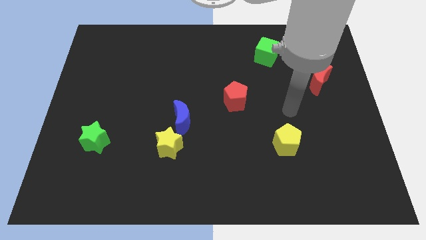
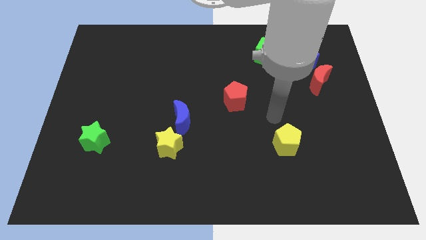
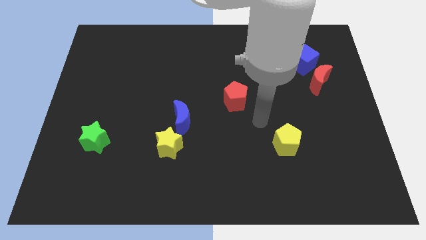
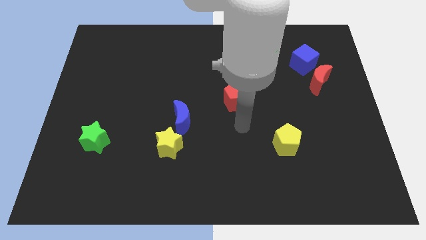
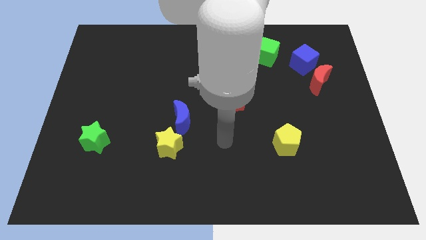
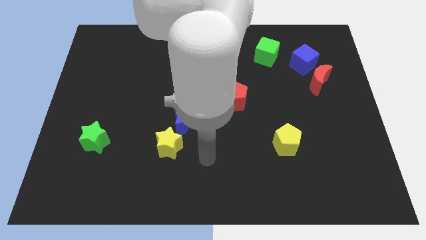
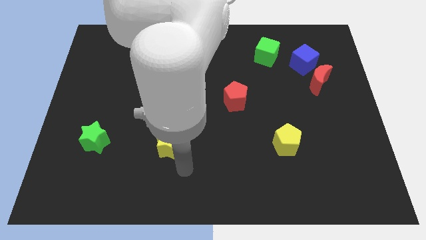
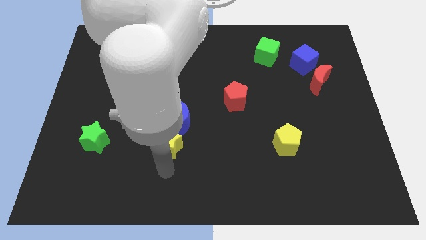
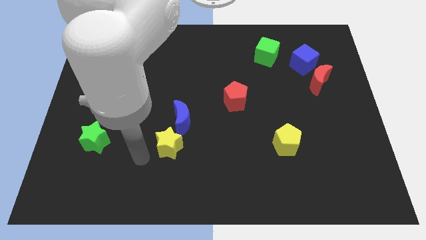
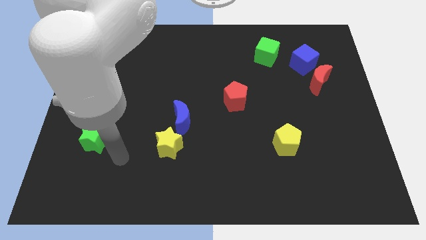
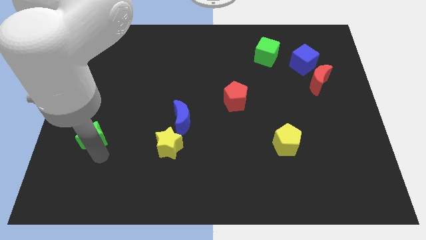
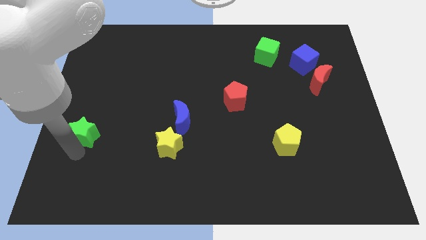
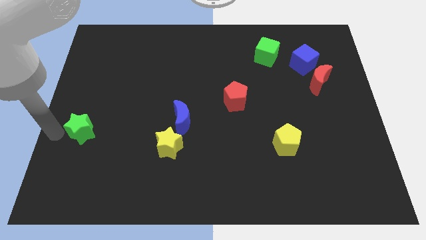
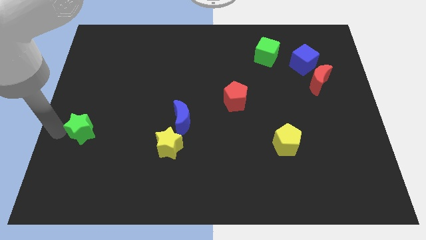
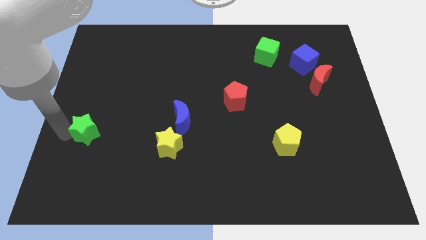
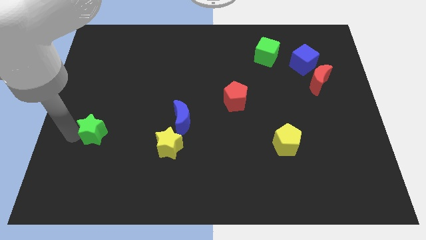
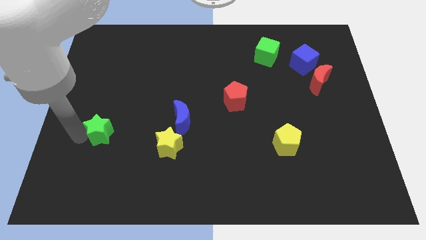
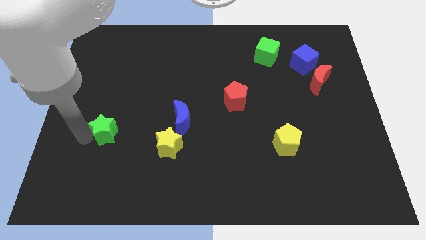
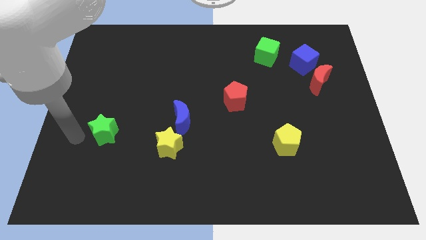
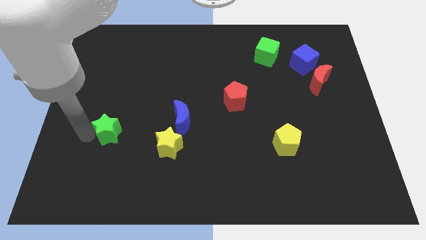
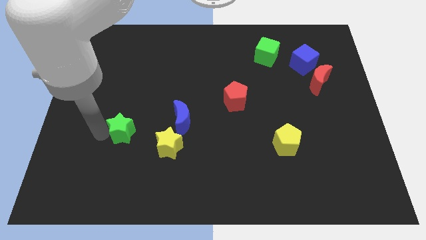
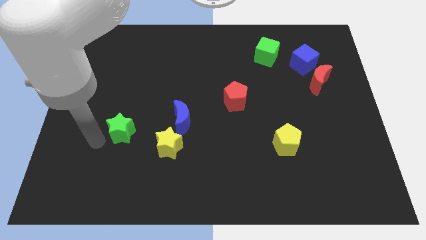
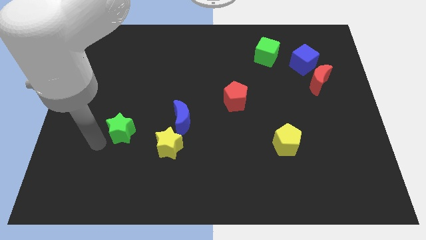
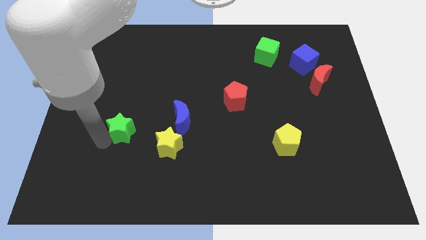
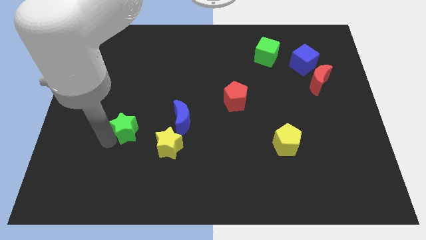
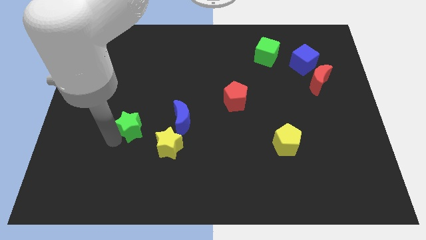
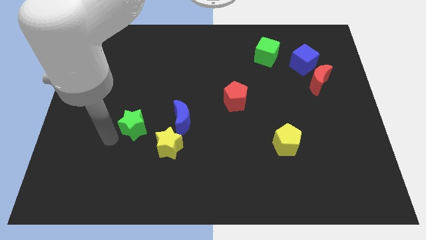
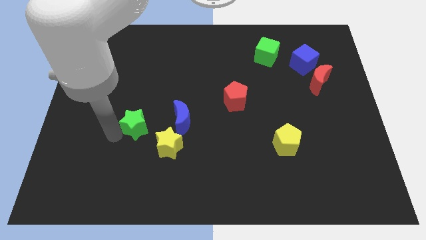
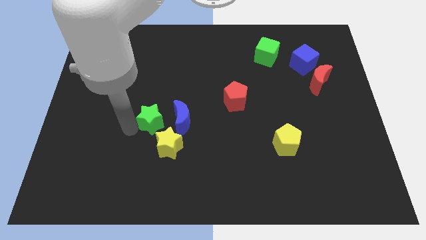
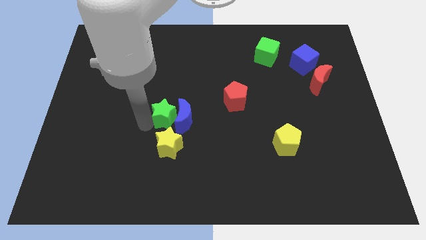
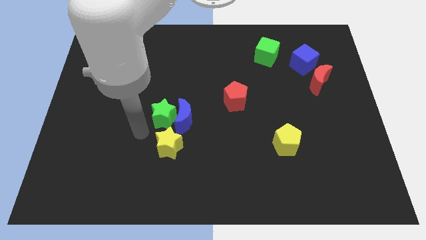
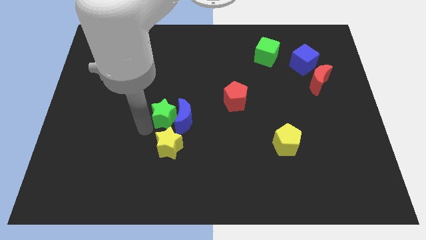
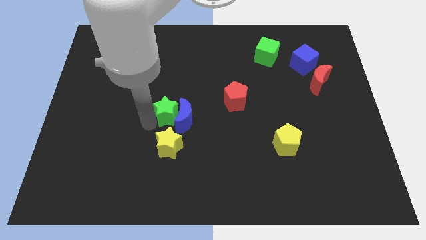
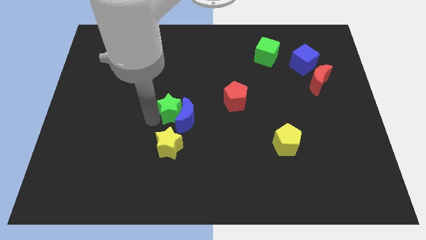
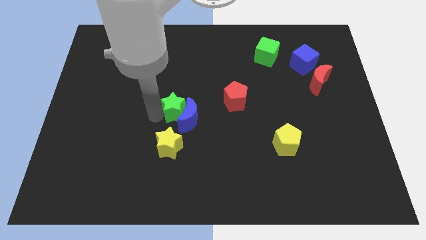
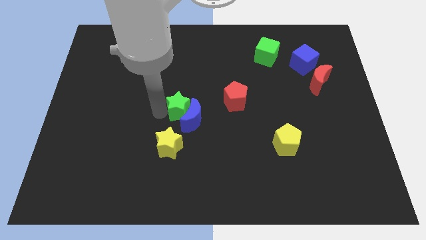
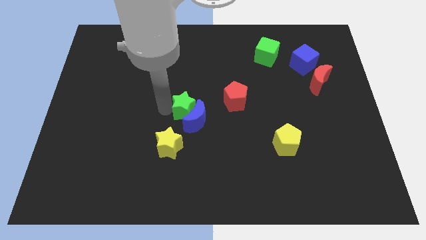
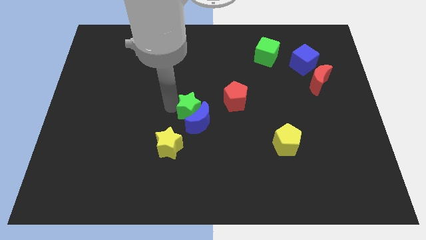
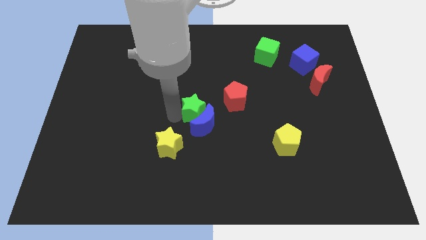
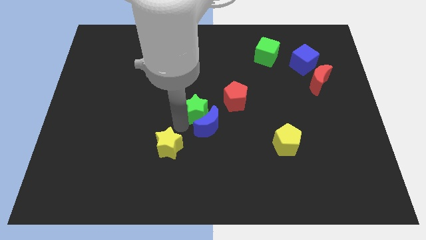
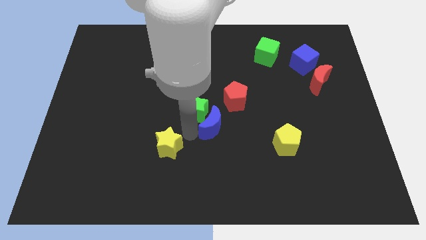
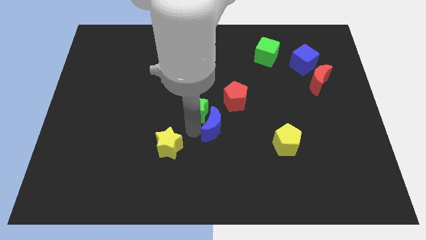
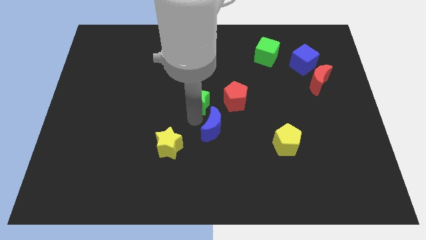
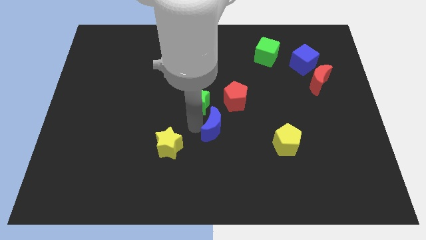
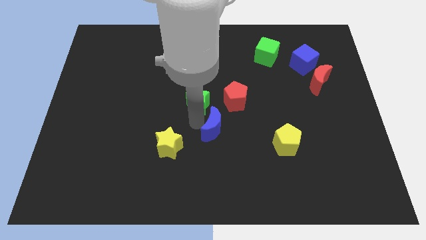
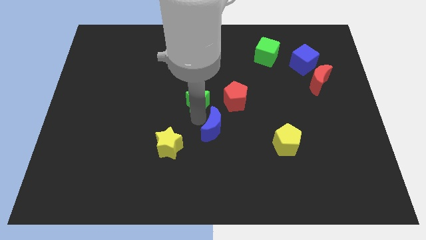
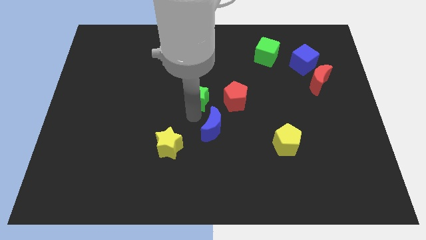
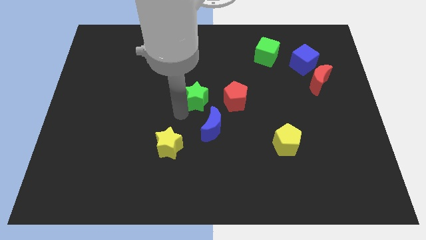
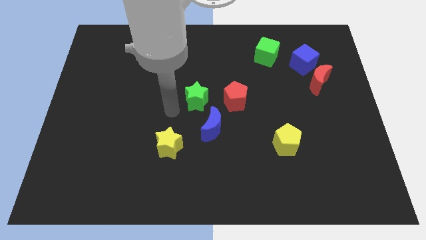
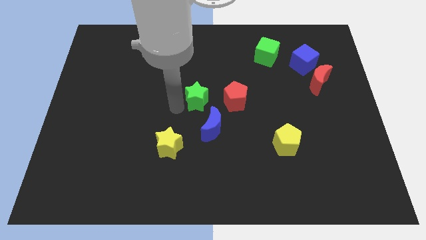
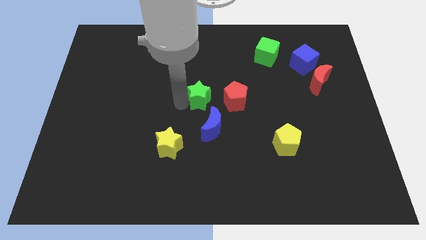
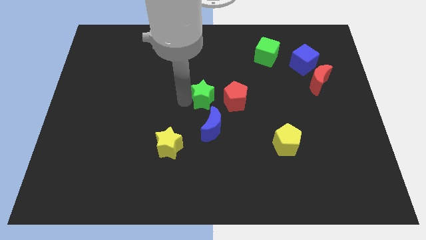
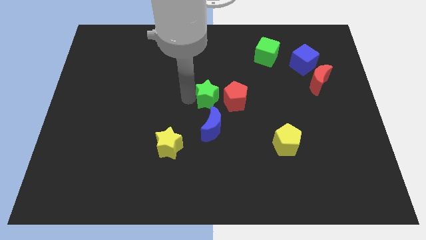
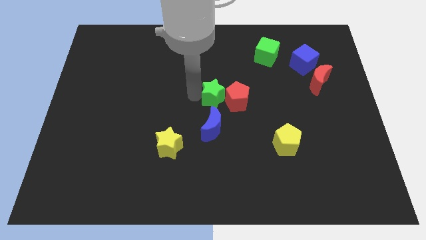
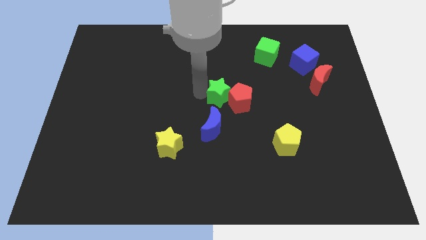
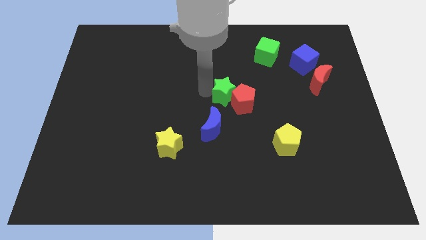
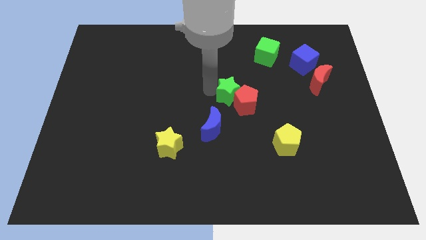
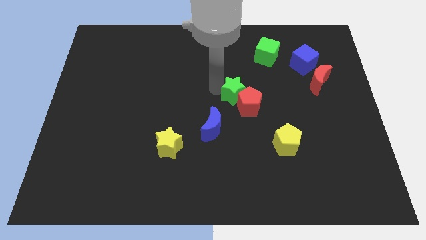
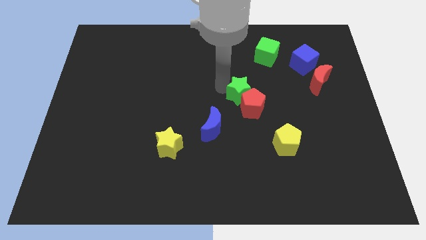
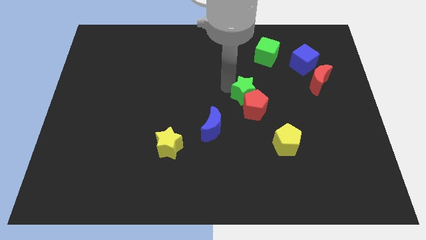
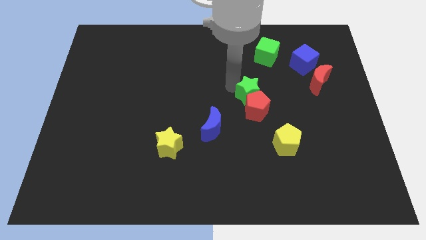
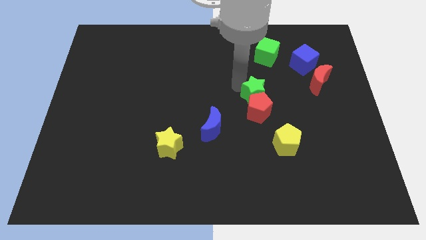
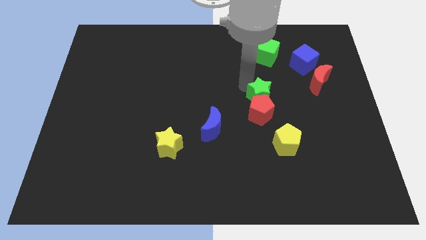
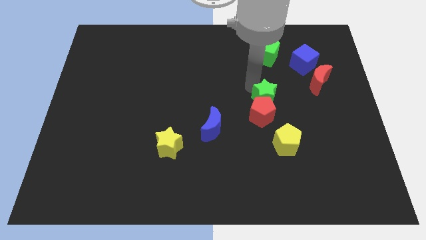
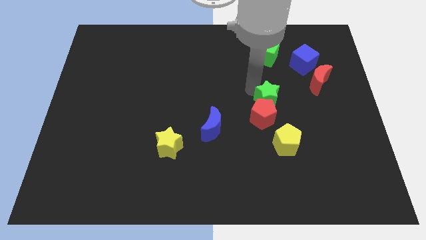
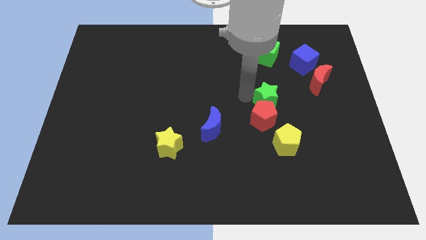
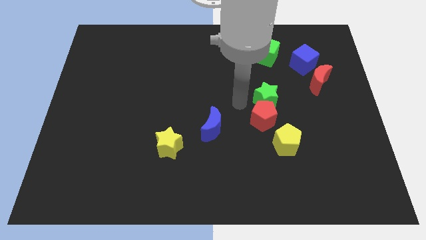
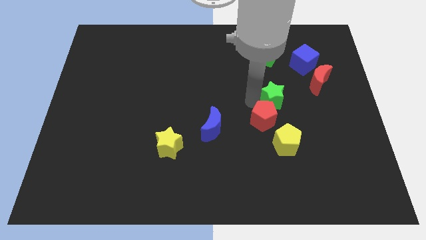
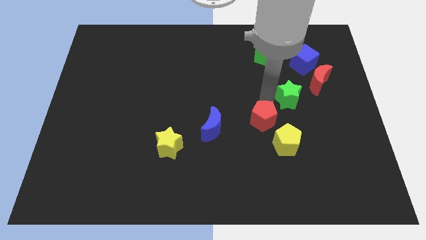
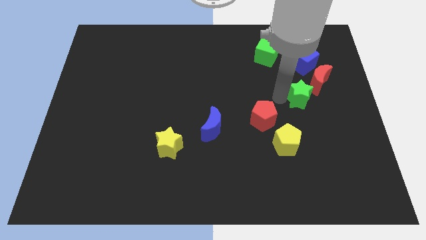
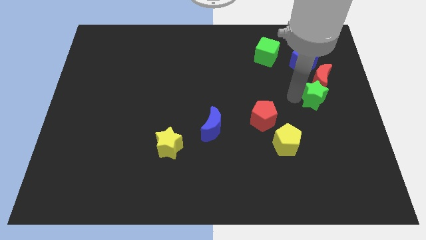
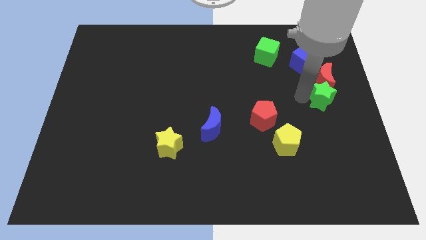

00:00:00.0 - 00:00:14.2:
put the green star to the right side of the board
